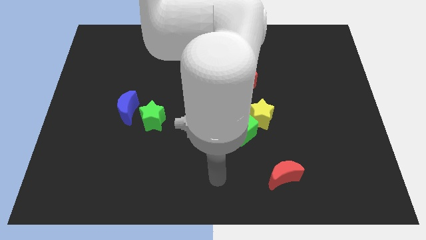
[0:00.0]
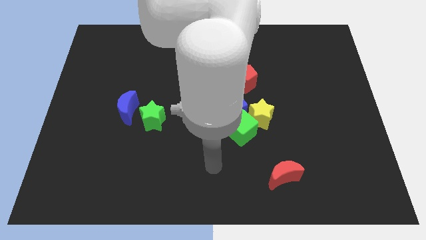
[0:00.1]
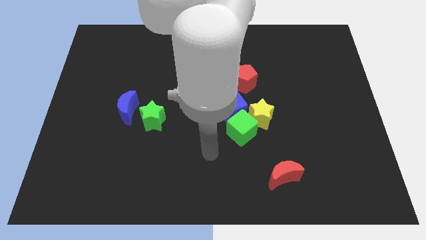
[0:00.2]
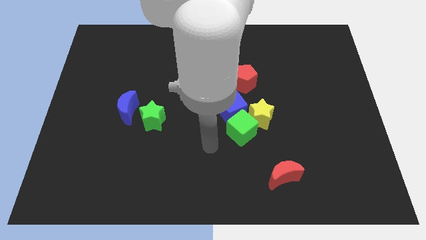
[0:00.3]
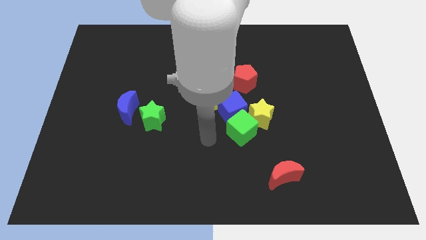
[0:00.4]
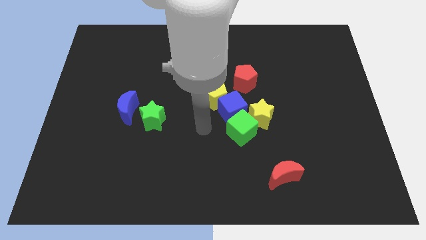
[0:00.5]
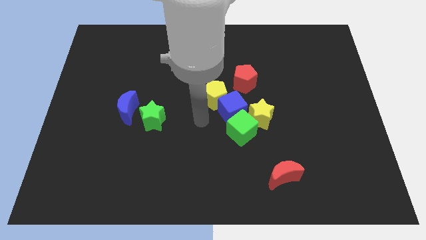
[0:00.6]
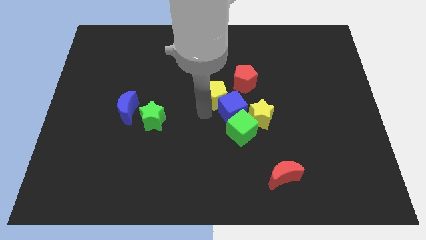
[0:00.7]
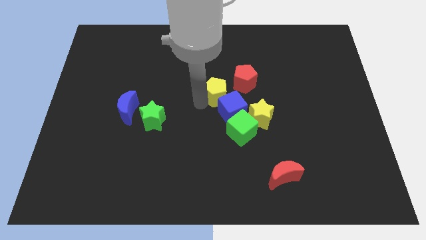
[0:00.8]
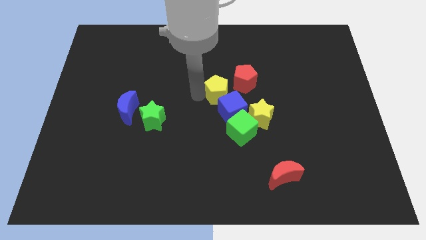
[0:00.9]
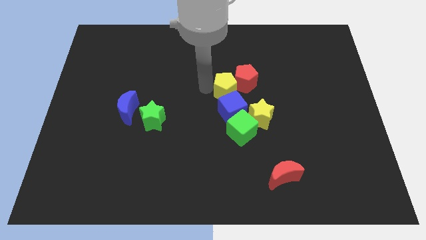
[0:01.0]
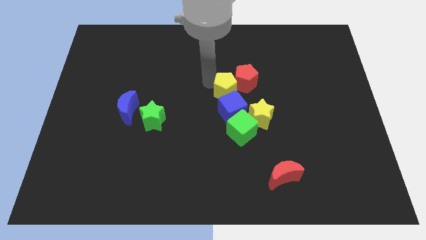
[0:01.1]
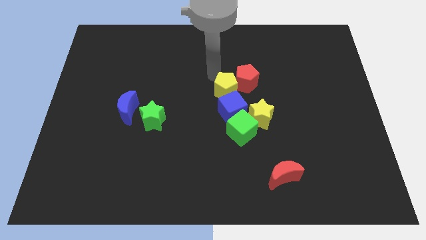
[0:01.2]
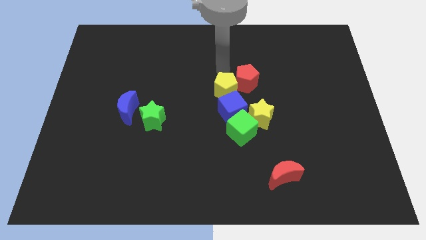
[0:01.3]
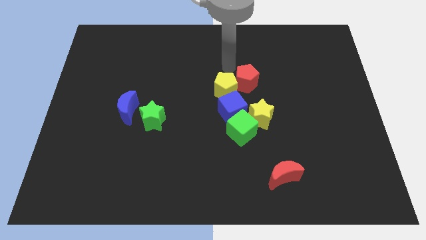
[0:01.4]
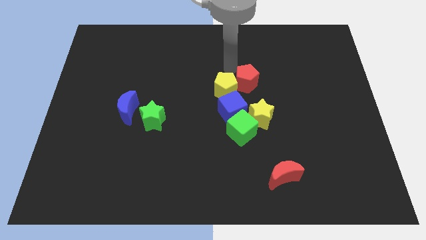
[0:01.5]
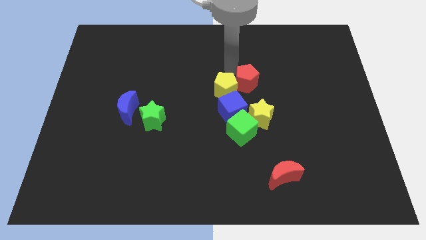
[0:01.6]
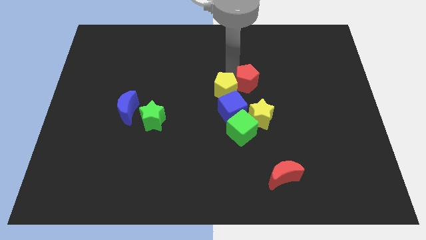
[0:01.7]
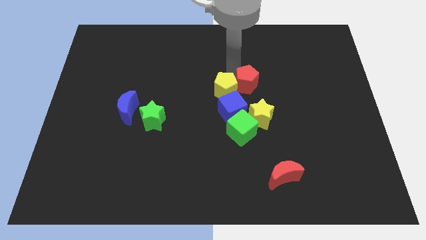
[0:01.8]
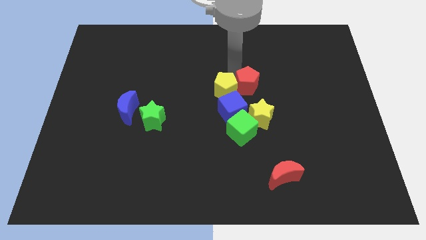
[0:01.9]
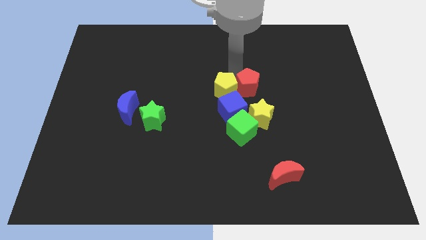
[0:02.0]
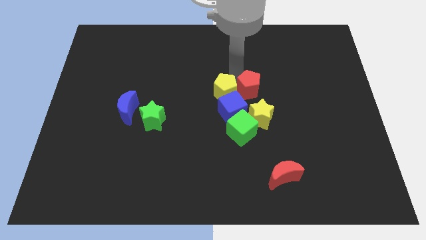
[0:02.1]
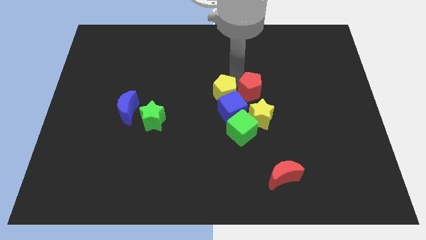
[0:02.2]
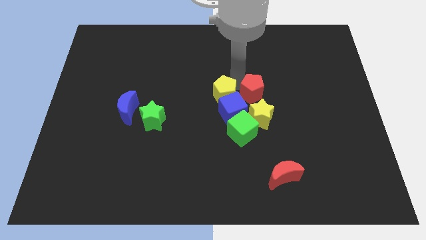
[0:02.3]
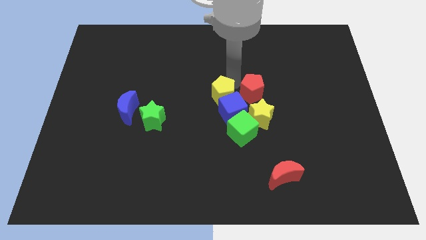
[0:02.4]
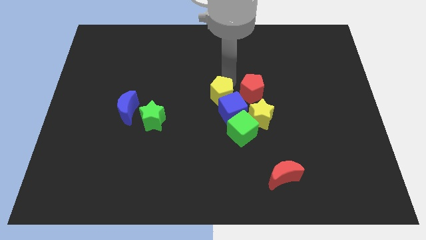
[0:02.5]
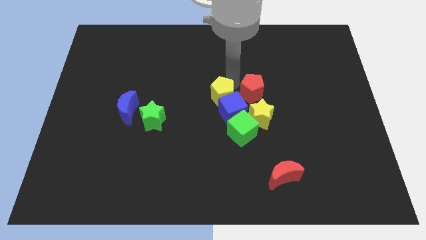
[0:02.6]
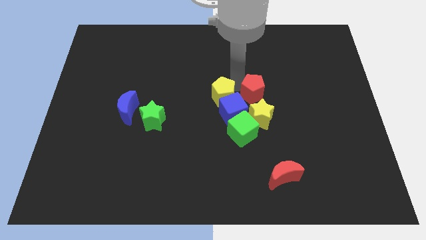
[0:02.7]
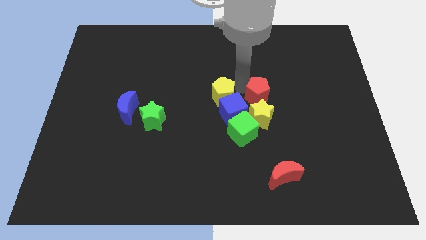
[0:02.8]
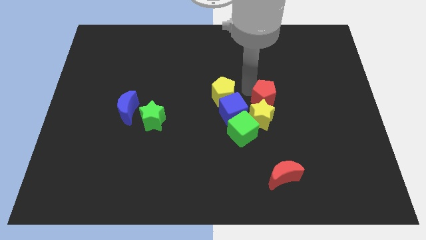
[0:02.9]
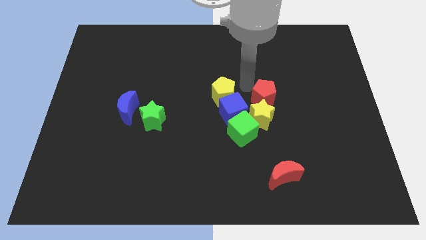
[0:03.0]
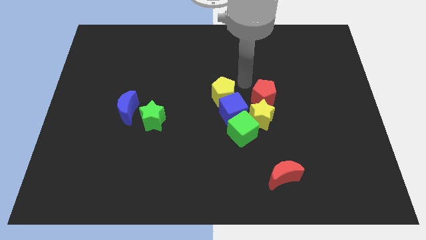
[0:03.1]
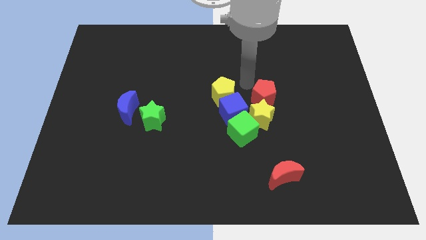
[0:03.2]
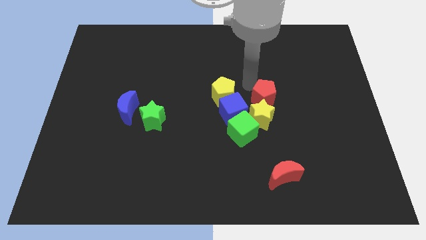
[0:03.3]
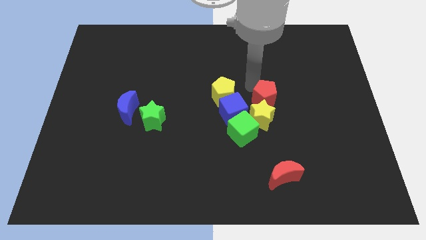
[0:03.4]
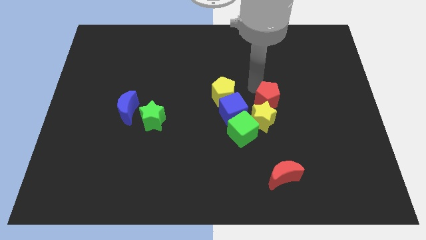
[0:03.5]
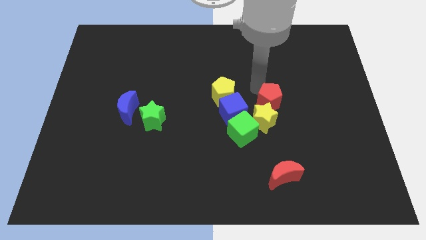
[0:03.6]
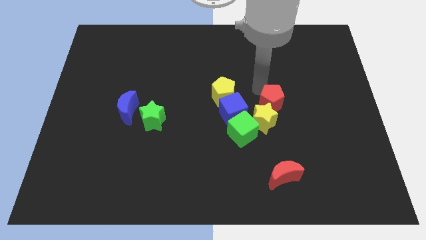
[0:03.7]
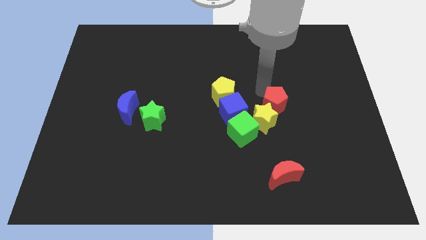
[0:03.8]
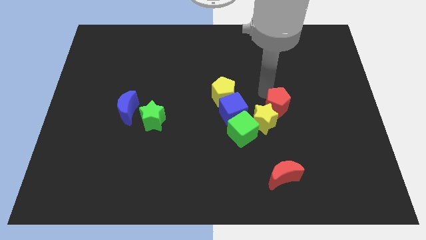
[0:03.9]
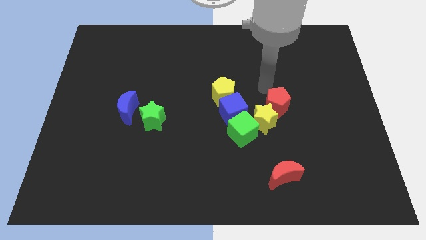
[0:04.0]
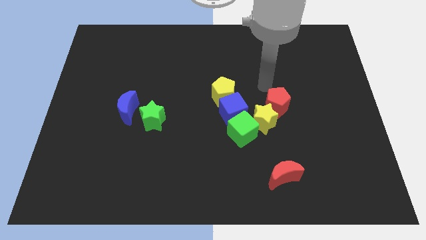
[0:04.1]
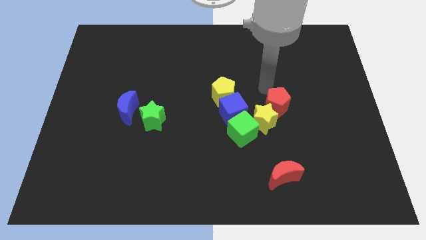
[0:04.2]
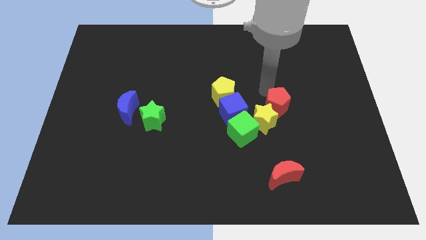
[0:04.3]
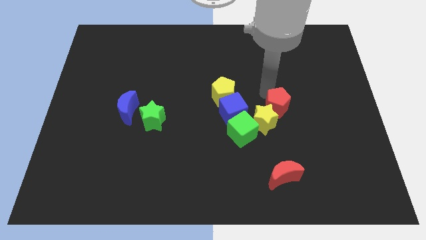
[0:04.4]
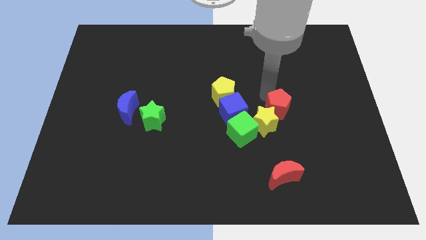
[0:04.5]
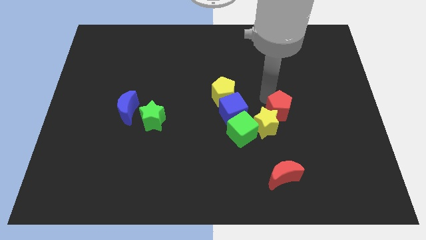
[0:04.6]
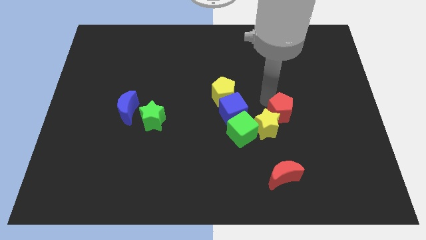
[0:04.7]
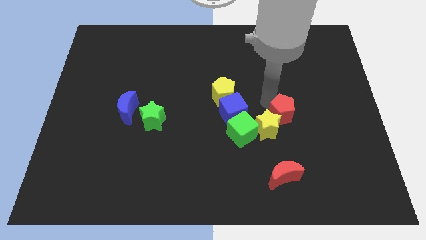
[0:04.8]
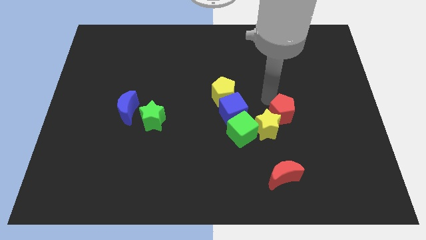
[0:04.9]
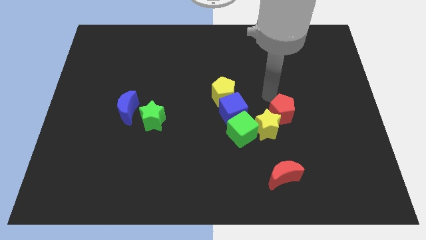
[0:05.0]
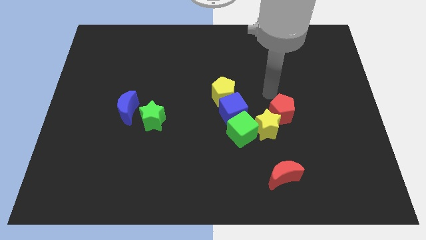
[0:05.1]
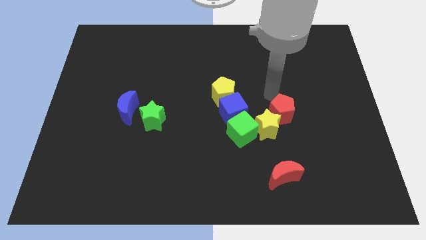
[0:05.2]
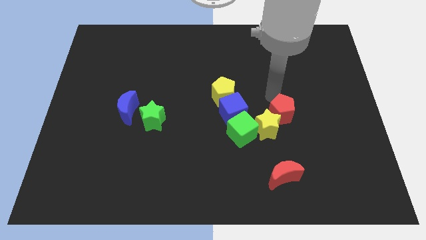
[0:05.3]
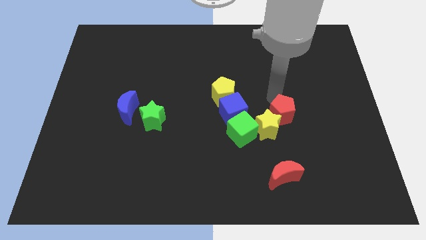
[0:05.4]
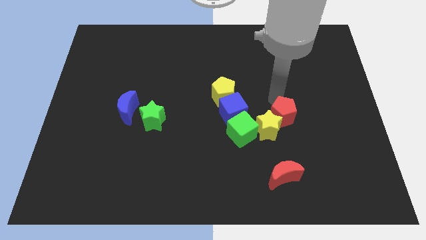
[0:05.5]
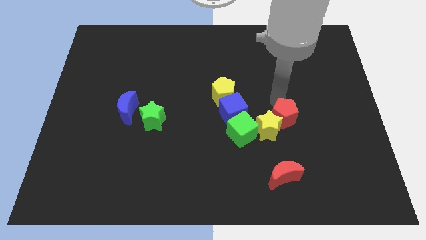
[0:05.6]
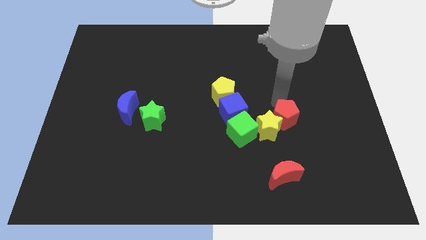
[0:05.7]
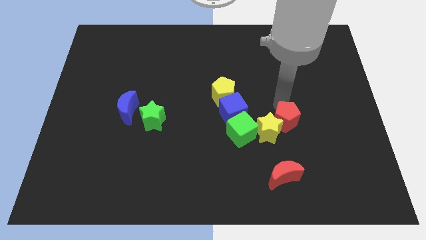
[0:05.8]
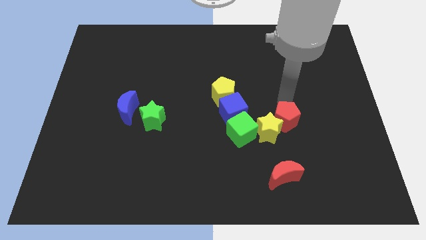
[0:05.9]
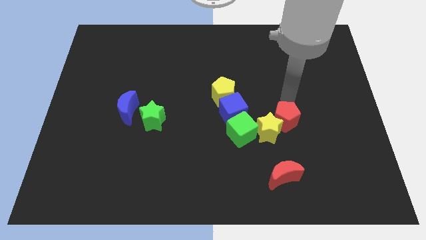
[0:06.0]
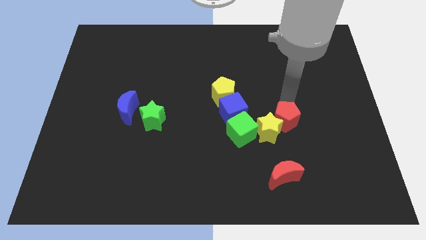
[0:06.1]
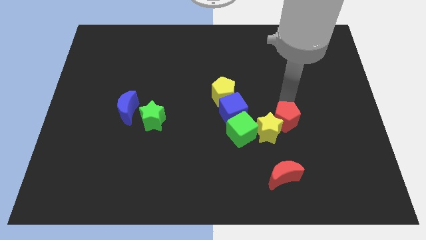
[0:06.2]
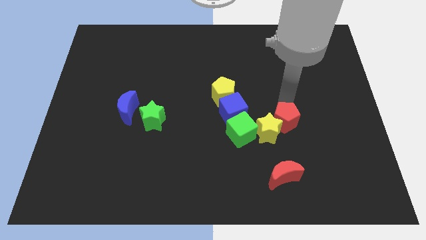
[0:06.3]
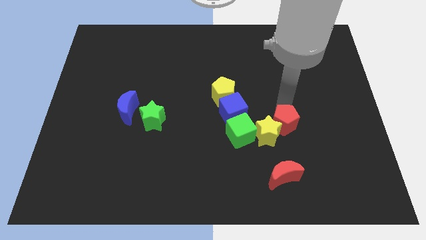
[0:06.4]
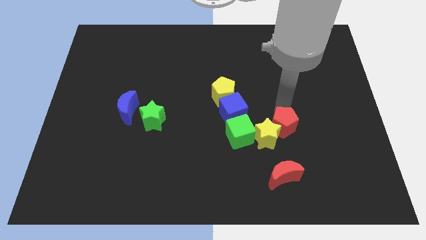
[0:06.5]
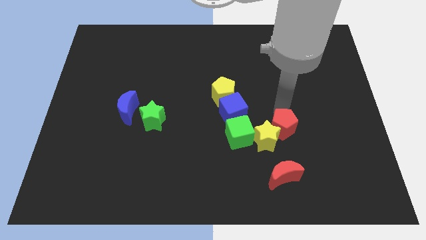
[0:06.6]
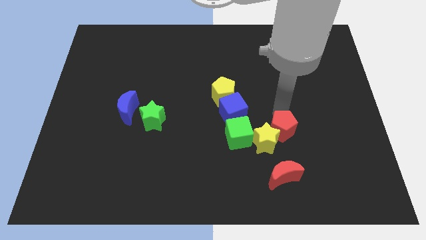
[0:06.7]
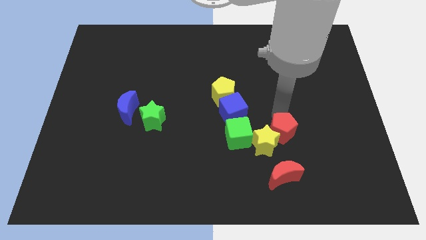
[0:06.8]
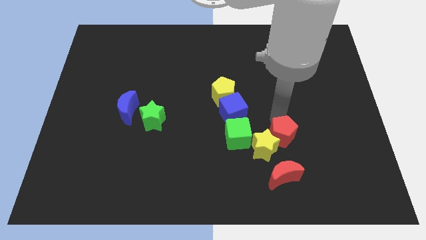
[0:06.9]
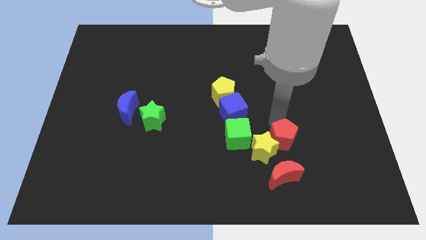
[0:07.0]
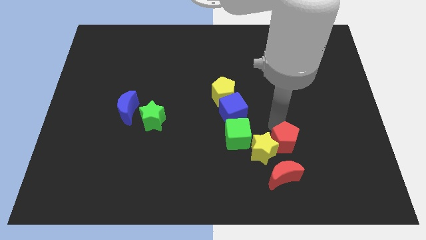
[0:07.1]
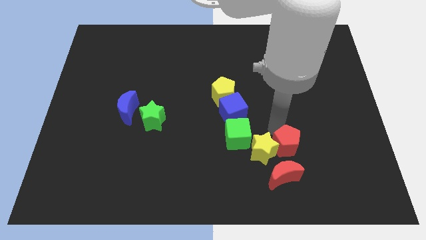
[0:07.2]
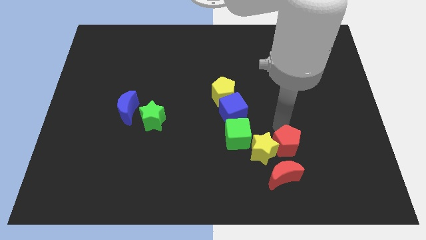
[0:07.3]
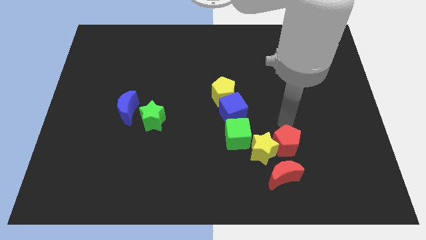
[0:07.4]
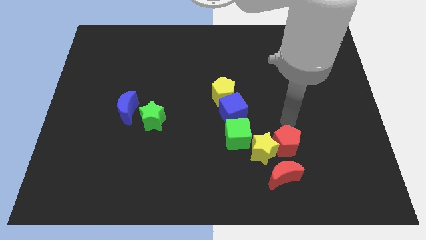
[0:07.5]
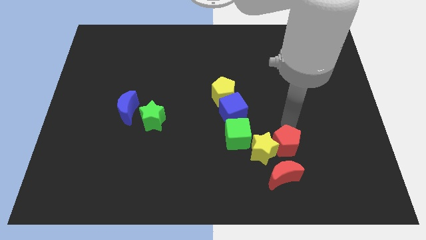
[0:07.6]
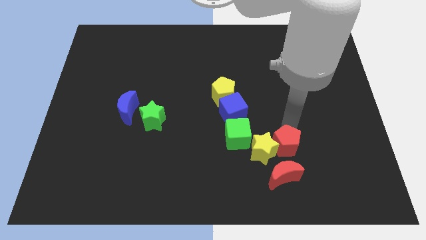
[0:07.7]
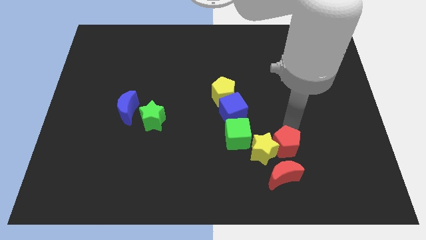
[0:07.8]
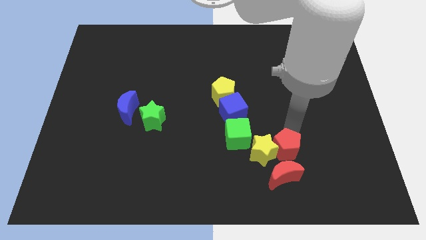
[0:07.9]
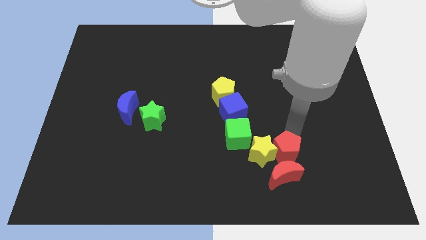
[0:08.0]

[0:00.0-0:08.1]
put the red pentagon towards the red moon
